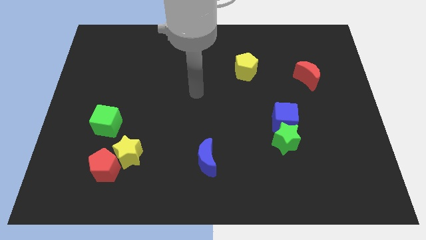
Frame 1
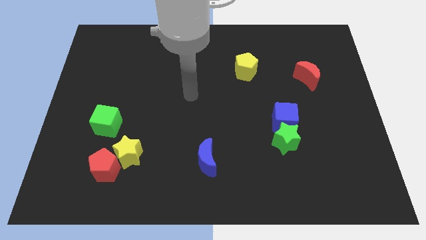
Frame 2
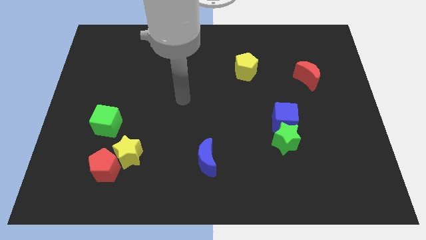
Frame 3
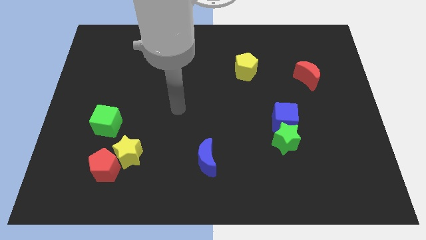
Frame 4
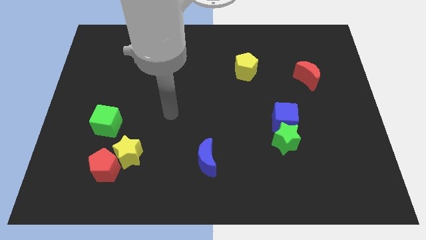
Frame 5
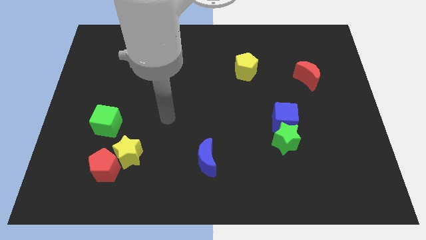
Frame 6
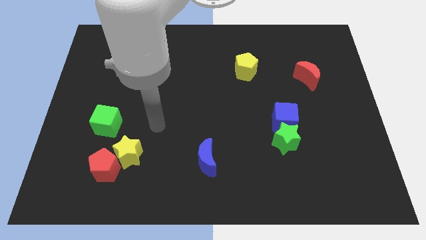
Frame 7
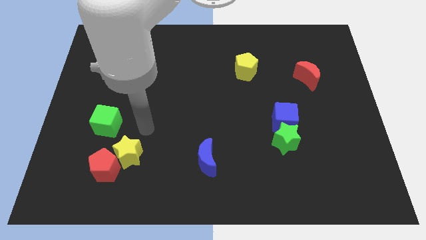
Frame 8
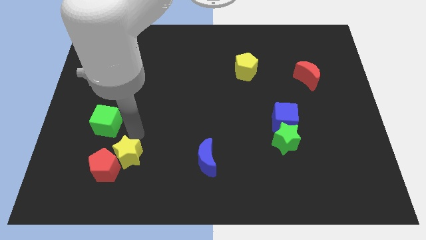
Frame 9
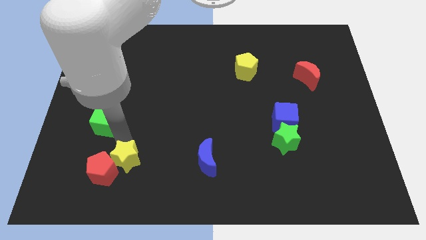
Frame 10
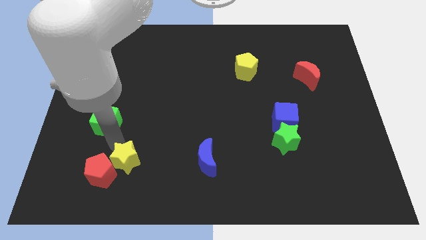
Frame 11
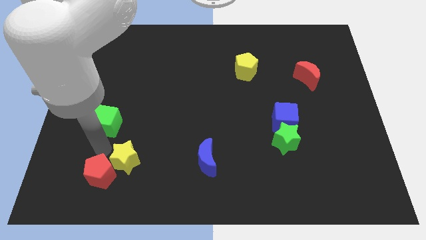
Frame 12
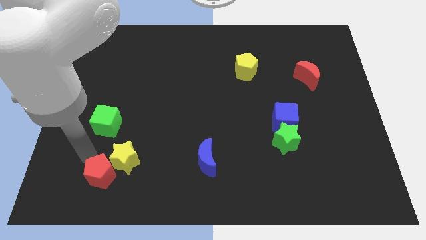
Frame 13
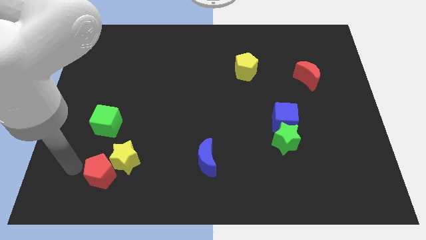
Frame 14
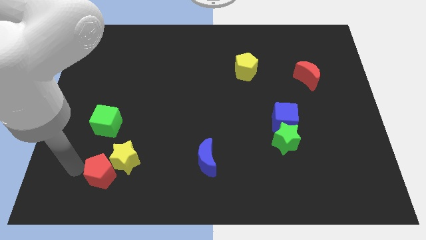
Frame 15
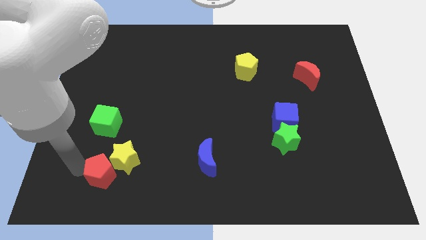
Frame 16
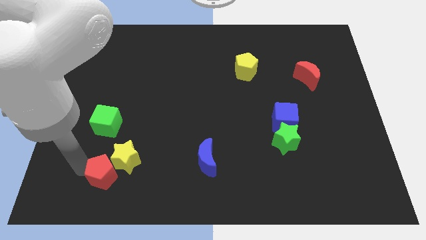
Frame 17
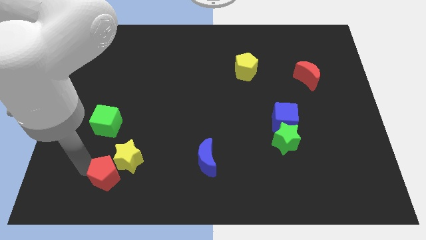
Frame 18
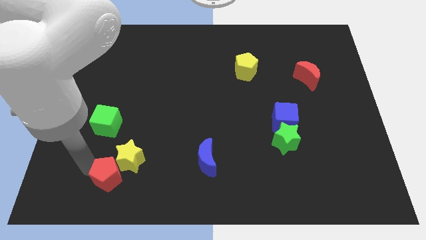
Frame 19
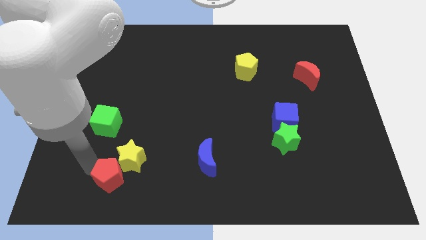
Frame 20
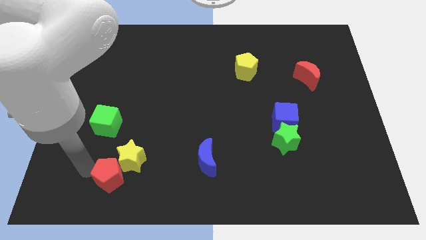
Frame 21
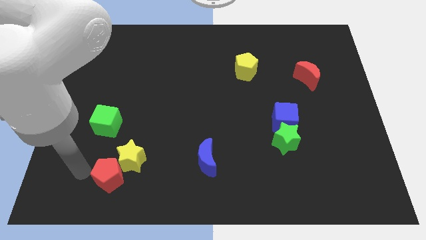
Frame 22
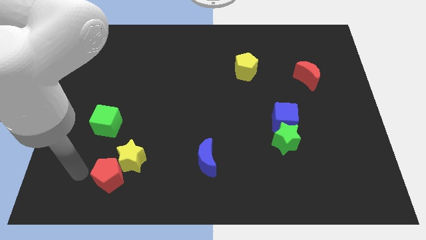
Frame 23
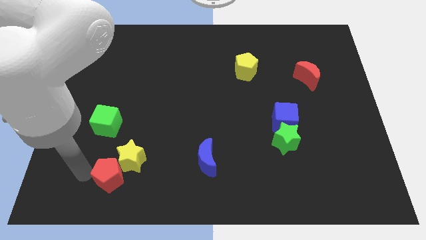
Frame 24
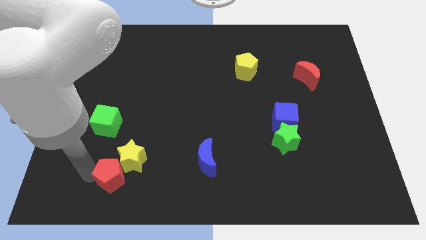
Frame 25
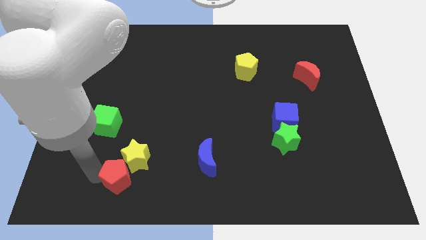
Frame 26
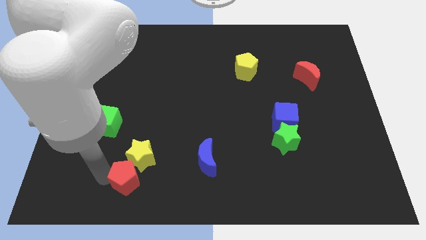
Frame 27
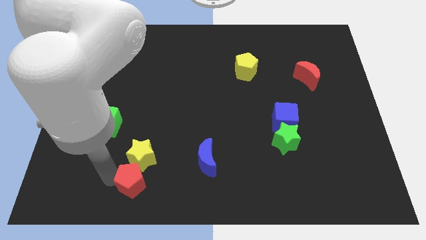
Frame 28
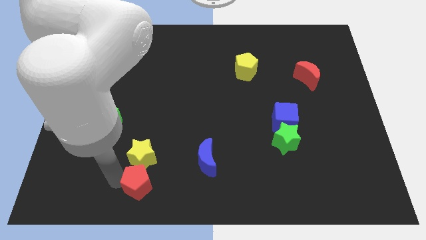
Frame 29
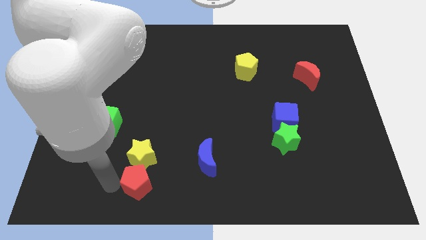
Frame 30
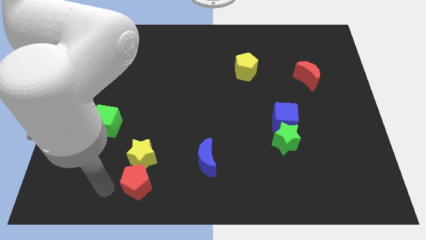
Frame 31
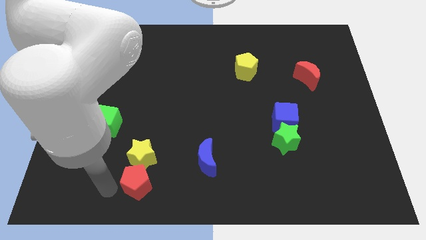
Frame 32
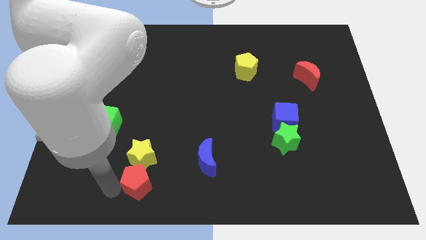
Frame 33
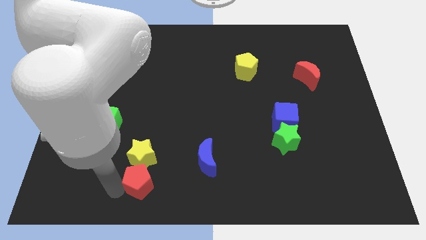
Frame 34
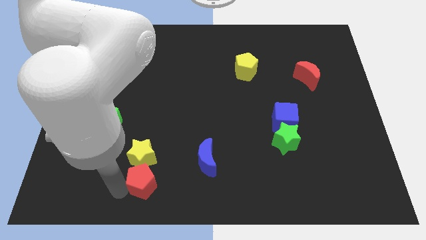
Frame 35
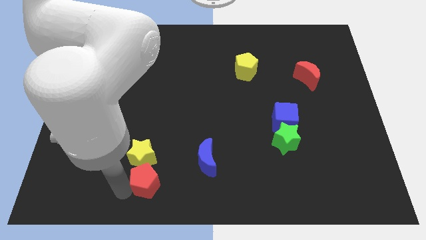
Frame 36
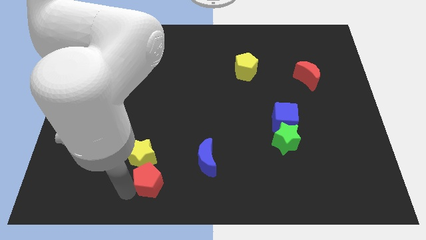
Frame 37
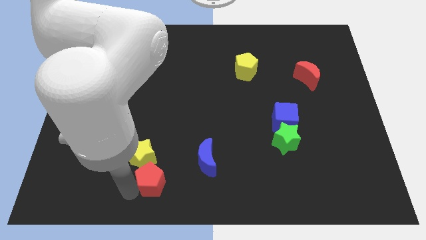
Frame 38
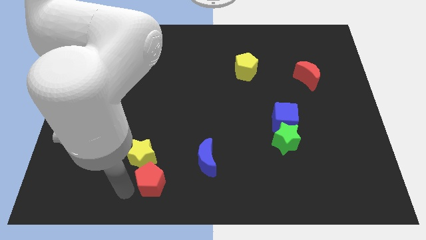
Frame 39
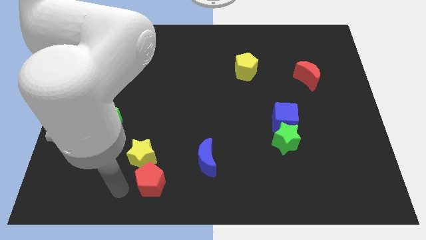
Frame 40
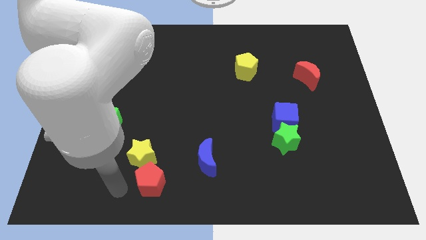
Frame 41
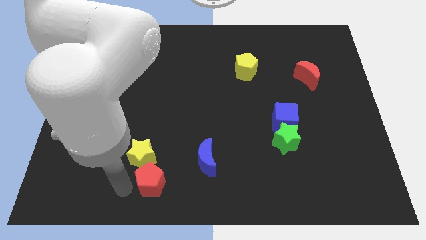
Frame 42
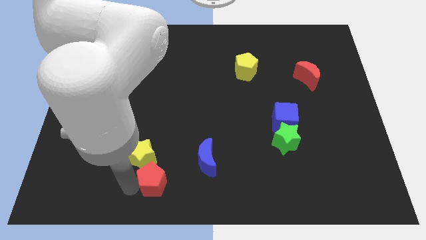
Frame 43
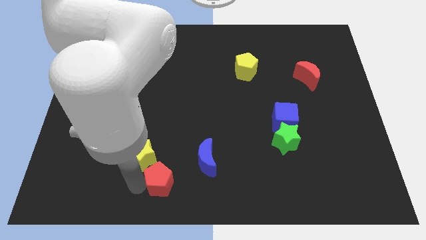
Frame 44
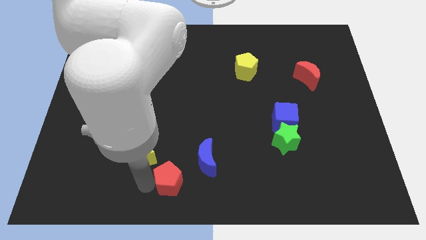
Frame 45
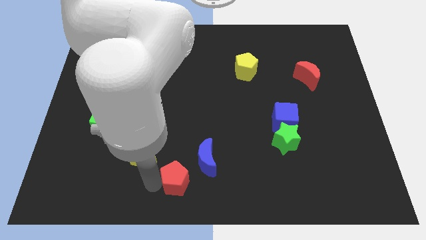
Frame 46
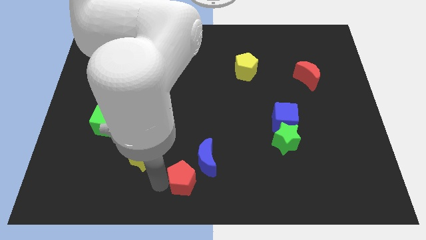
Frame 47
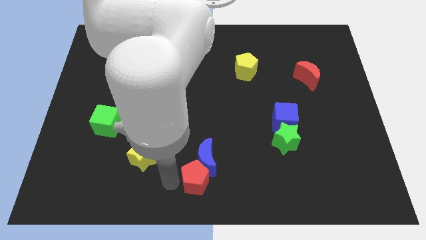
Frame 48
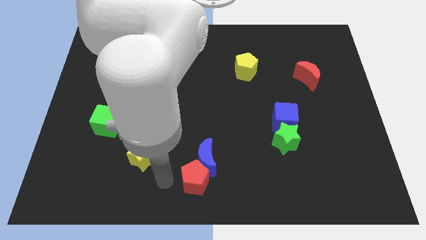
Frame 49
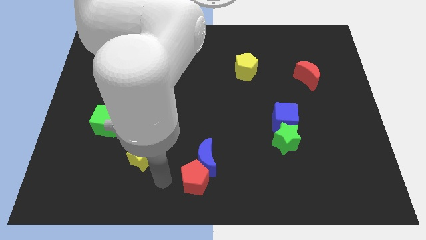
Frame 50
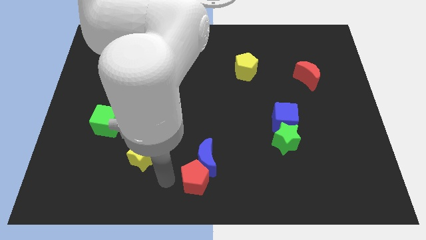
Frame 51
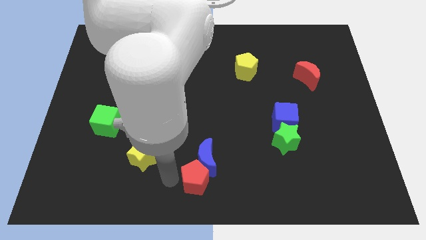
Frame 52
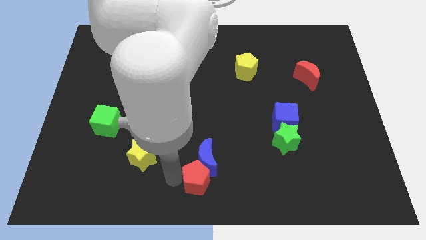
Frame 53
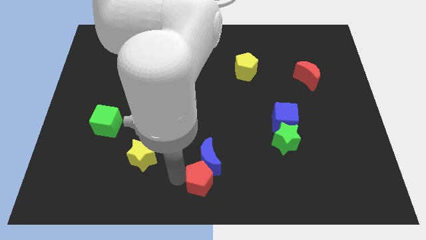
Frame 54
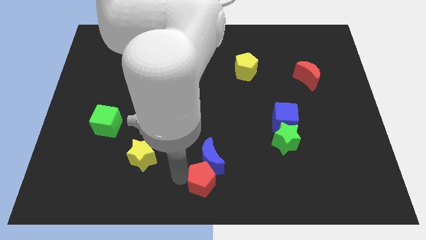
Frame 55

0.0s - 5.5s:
move the red pentagon right

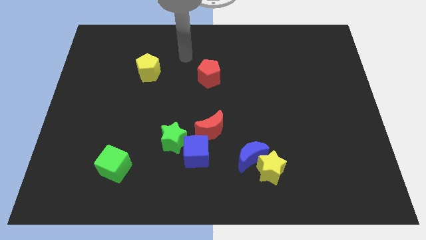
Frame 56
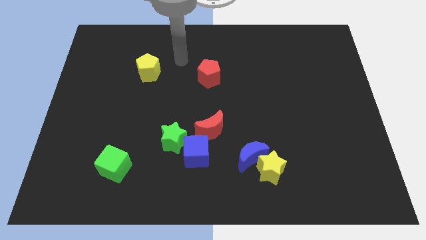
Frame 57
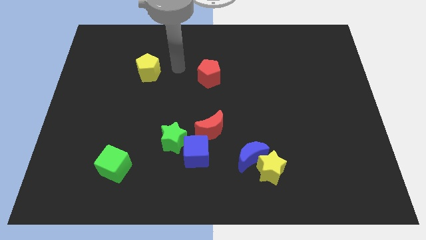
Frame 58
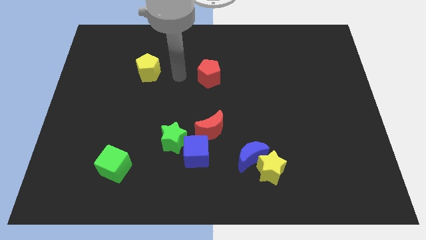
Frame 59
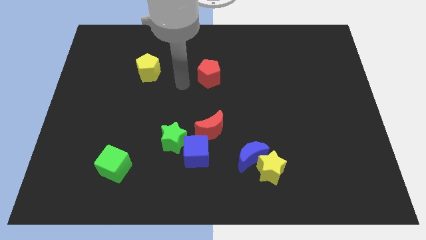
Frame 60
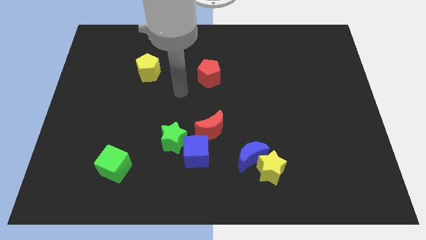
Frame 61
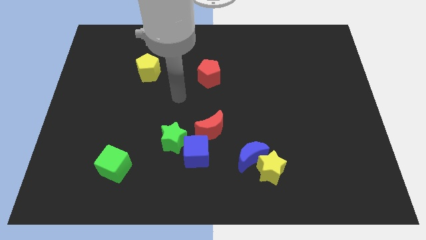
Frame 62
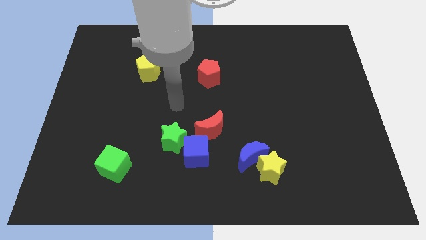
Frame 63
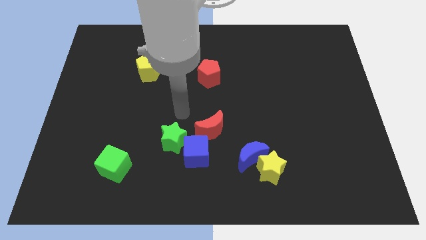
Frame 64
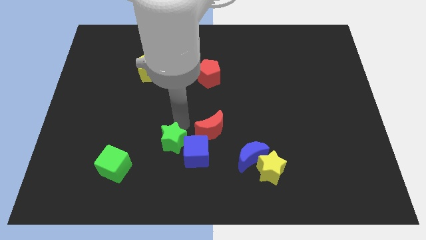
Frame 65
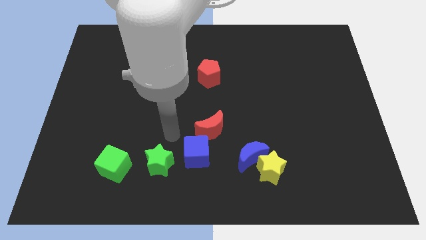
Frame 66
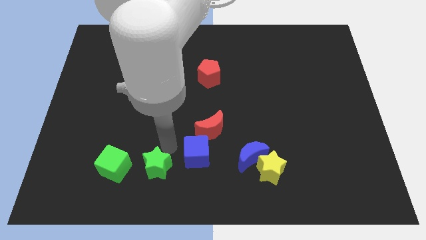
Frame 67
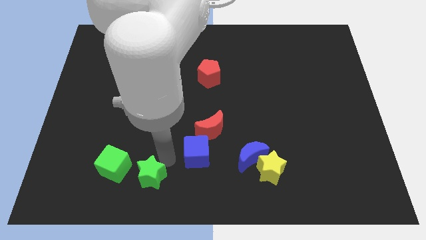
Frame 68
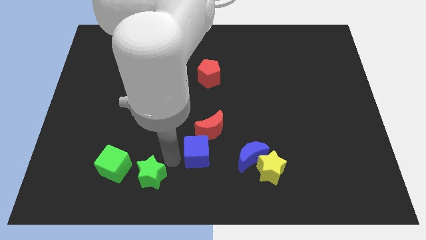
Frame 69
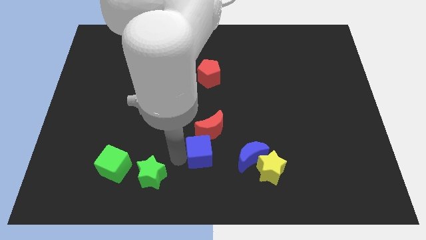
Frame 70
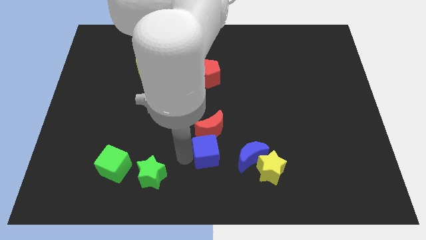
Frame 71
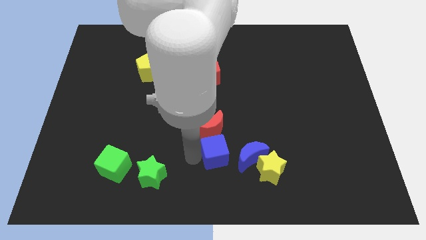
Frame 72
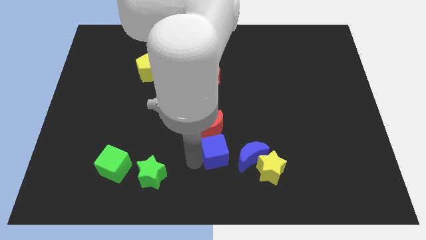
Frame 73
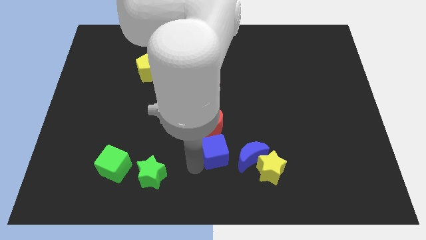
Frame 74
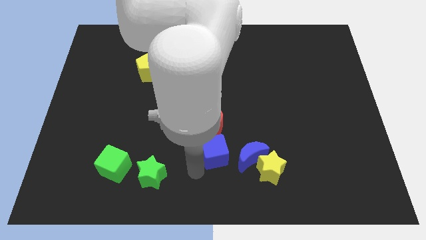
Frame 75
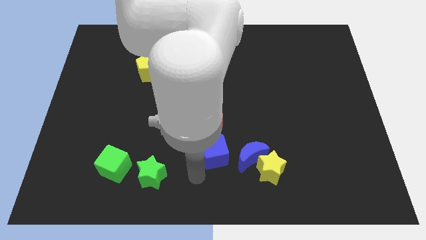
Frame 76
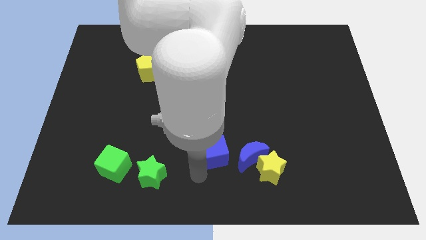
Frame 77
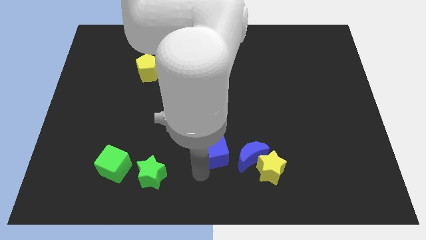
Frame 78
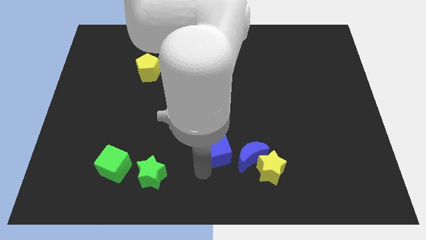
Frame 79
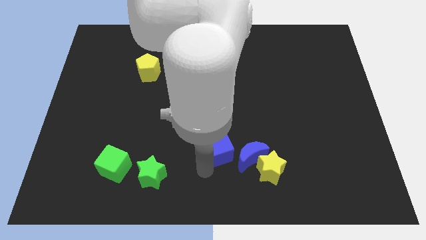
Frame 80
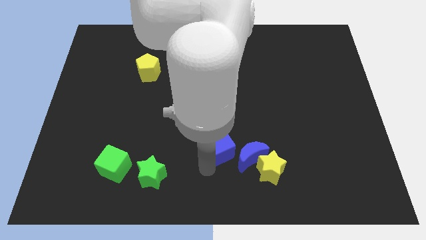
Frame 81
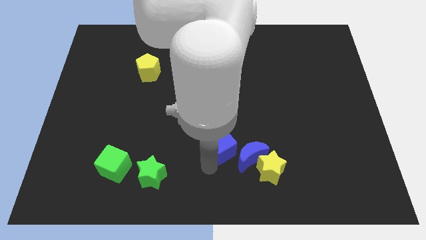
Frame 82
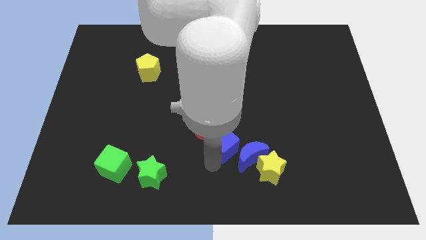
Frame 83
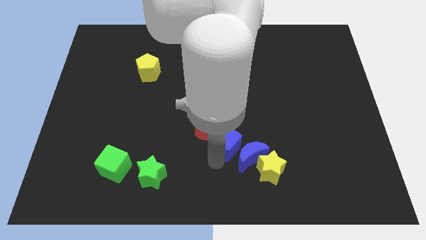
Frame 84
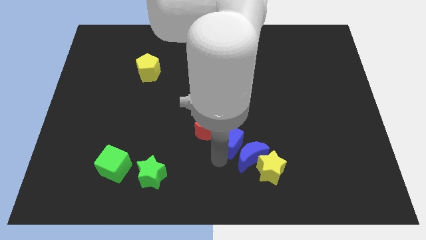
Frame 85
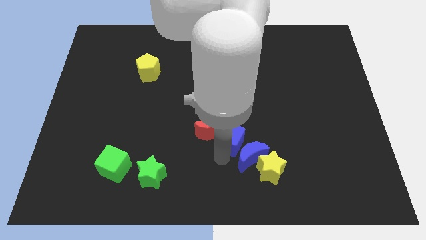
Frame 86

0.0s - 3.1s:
slightly slide the blue cube up and to the right diagonally
